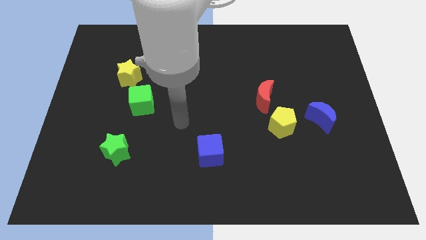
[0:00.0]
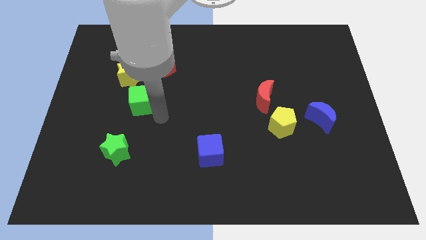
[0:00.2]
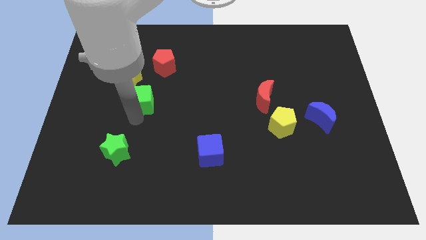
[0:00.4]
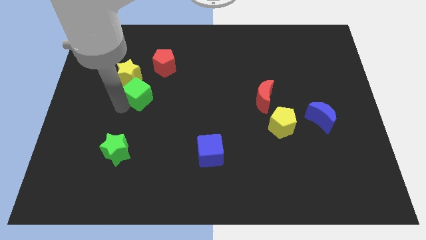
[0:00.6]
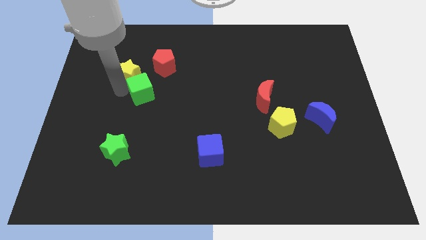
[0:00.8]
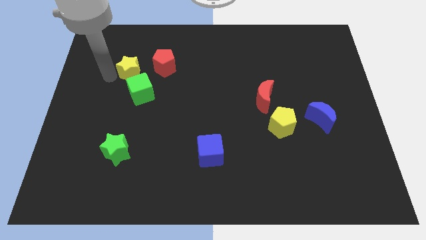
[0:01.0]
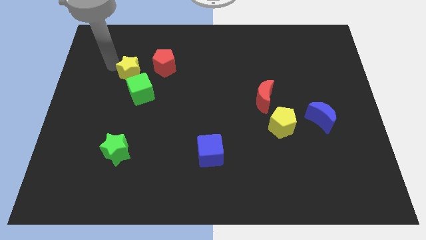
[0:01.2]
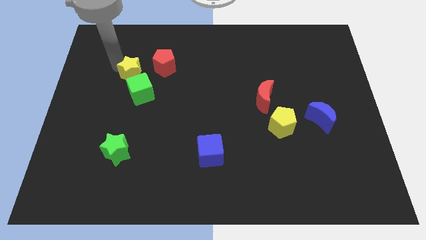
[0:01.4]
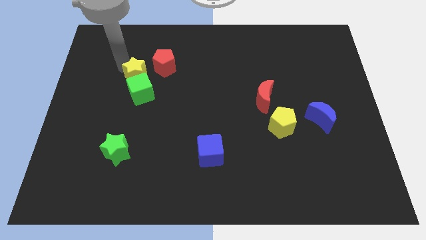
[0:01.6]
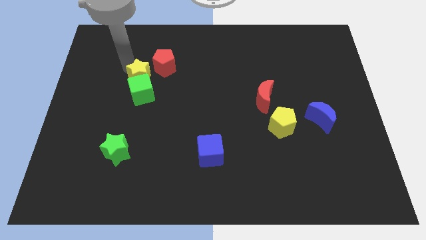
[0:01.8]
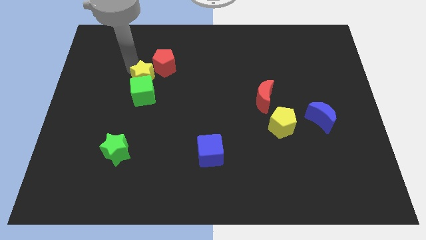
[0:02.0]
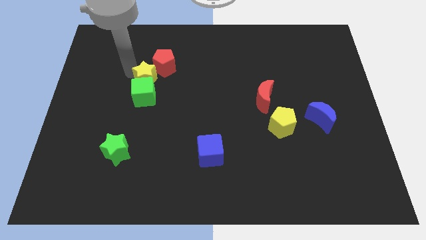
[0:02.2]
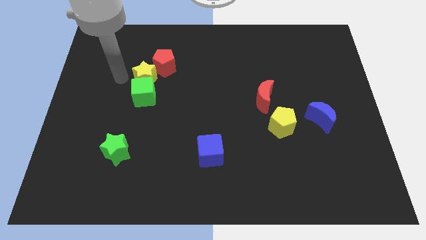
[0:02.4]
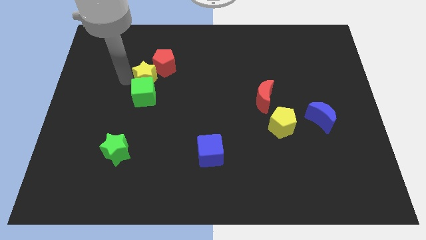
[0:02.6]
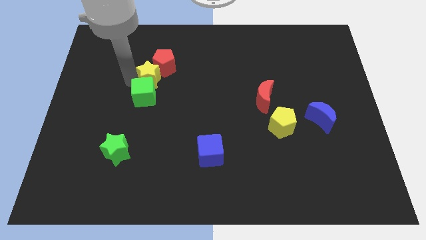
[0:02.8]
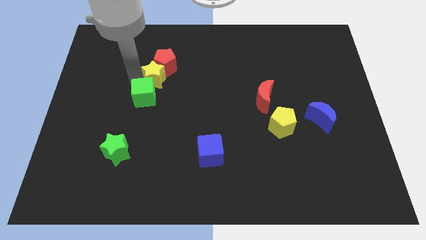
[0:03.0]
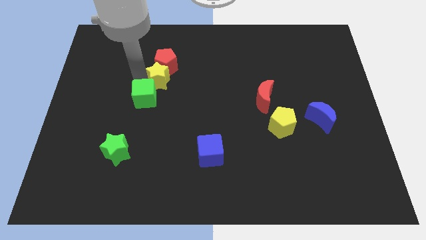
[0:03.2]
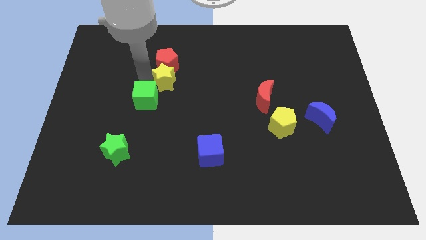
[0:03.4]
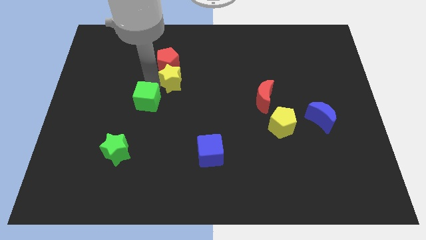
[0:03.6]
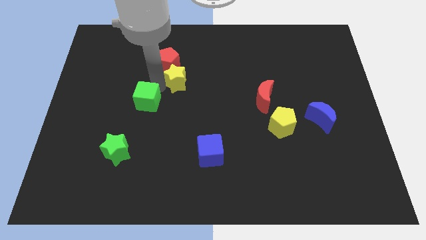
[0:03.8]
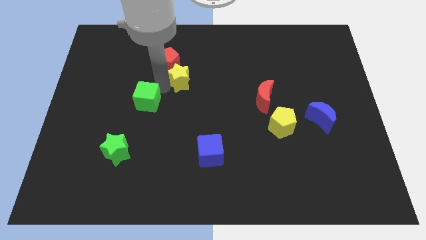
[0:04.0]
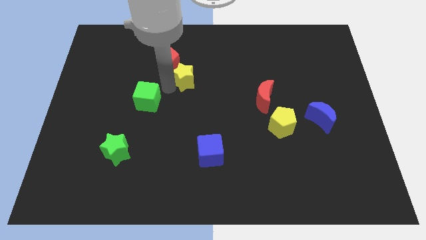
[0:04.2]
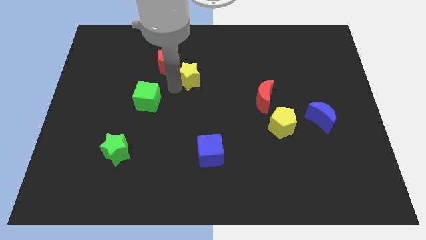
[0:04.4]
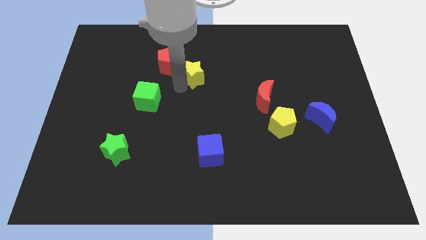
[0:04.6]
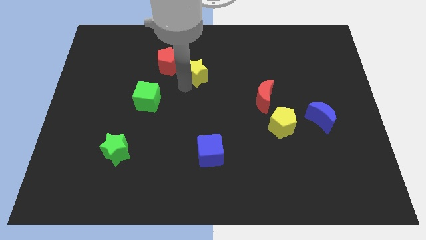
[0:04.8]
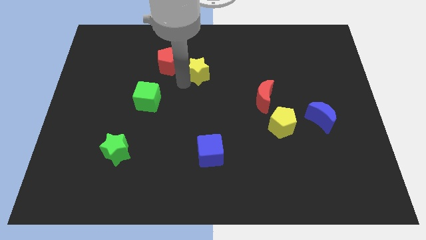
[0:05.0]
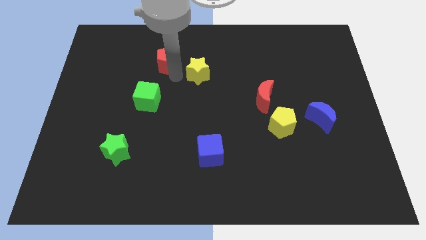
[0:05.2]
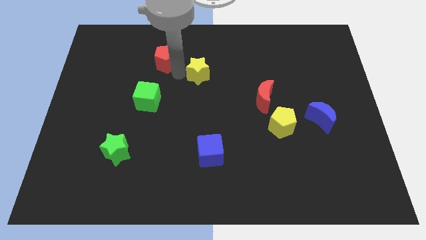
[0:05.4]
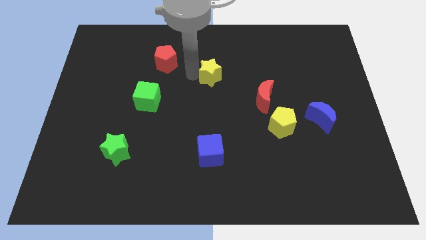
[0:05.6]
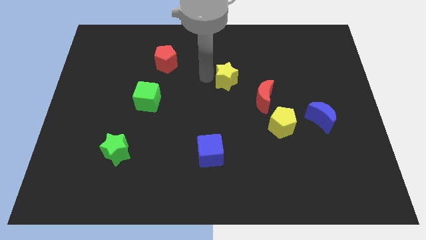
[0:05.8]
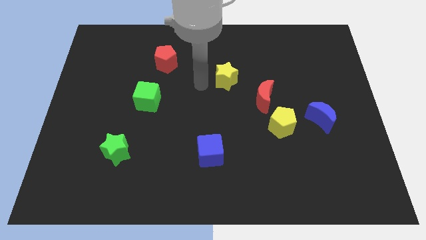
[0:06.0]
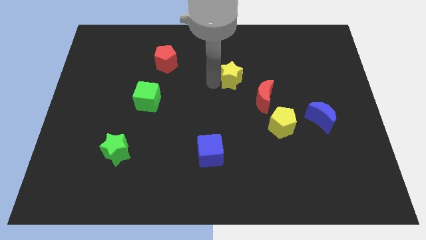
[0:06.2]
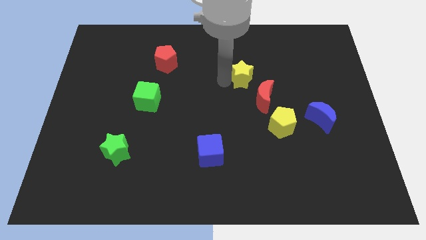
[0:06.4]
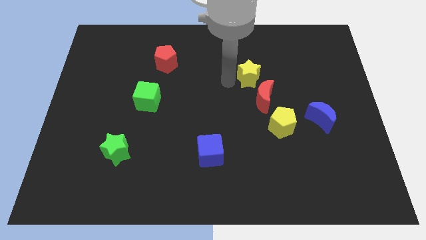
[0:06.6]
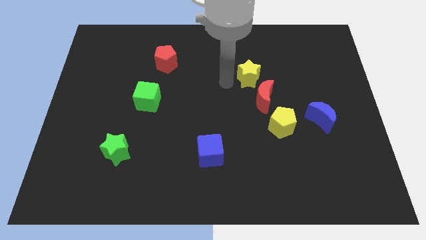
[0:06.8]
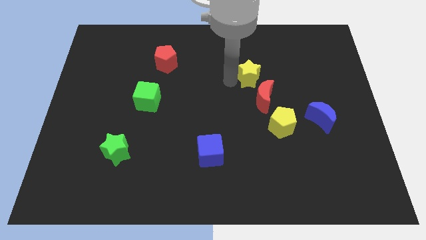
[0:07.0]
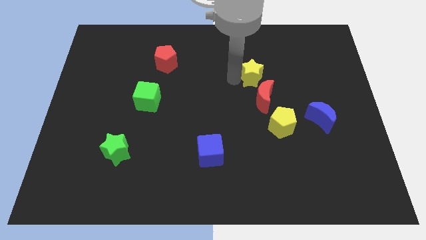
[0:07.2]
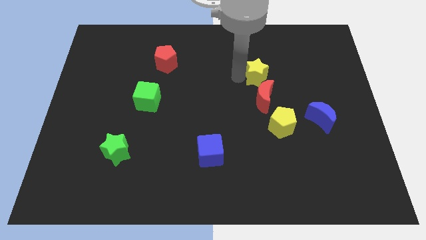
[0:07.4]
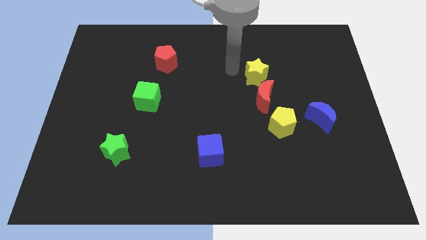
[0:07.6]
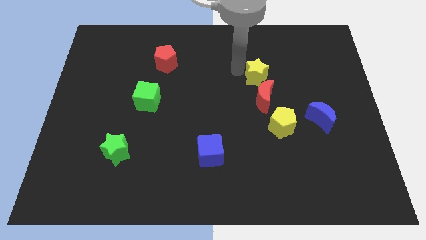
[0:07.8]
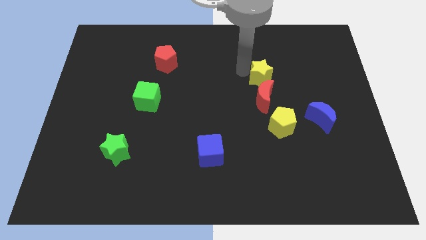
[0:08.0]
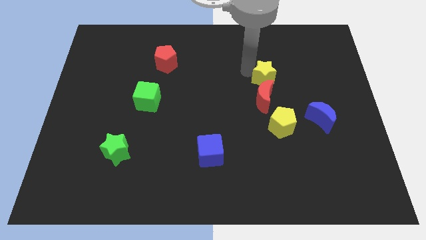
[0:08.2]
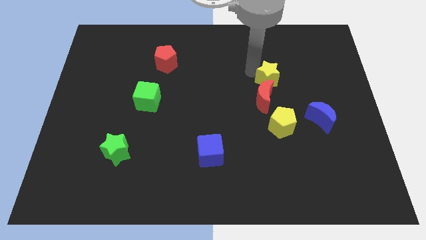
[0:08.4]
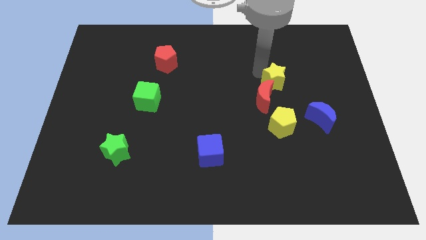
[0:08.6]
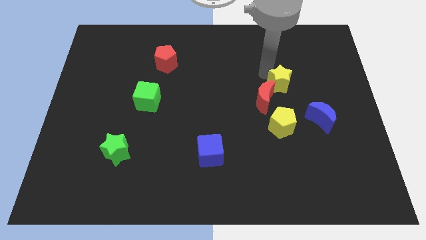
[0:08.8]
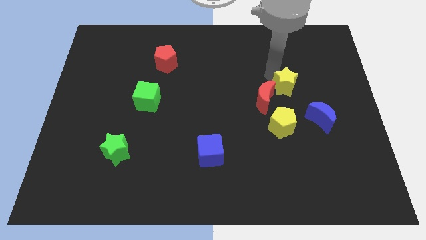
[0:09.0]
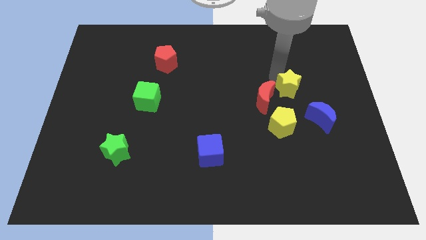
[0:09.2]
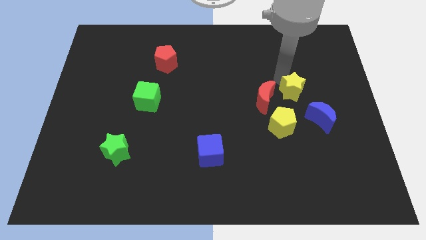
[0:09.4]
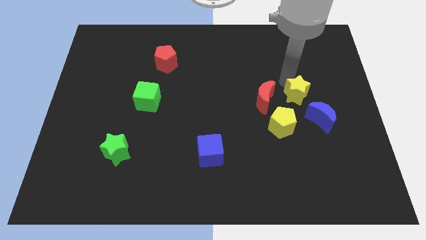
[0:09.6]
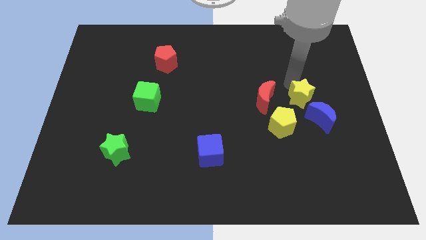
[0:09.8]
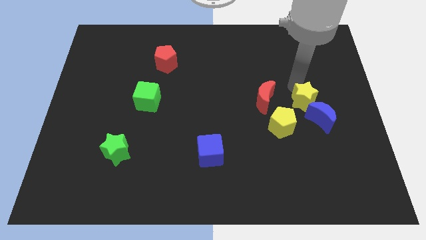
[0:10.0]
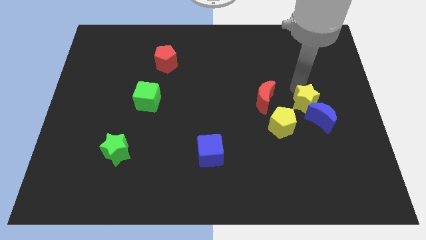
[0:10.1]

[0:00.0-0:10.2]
put the yellow star towards the blue moon

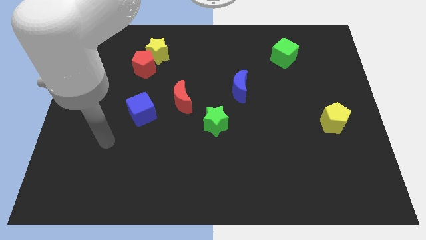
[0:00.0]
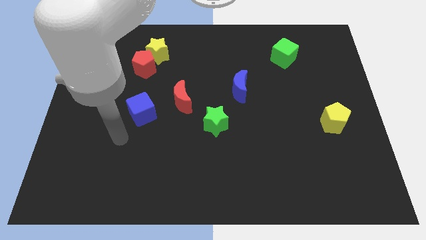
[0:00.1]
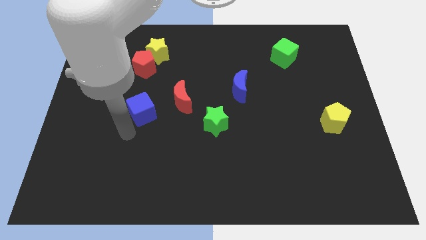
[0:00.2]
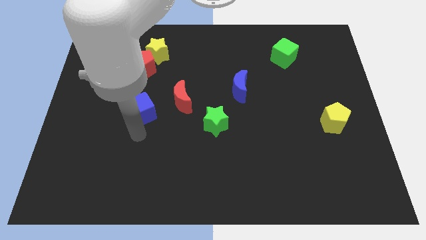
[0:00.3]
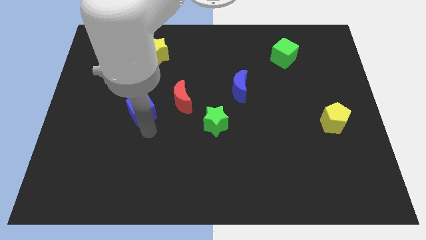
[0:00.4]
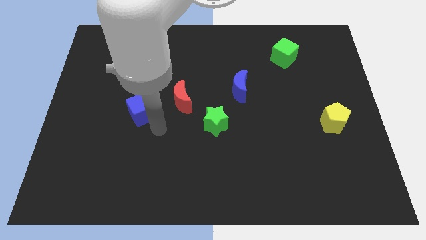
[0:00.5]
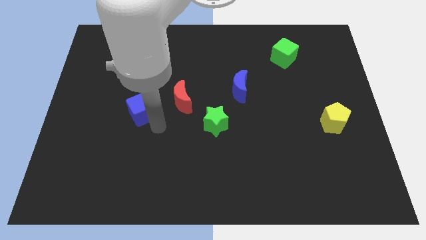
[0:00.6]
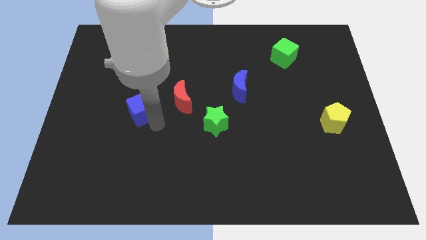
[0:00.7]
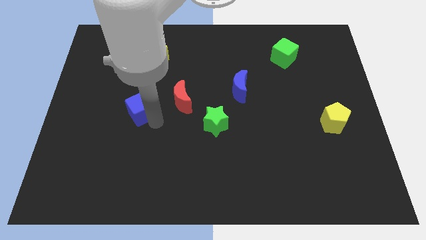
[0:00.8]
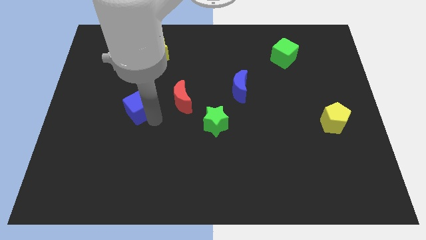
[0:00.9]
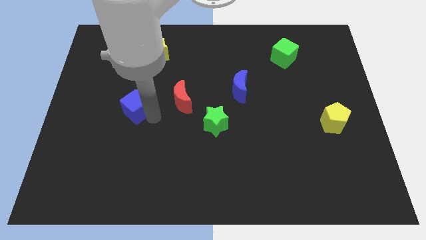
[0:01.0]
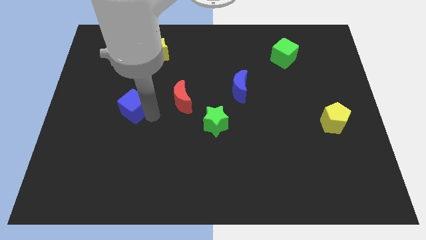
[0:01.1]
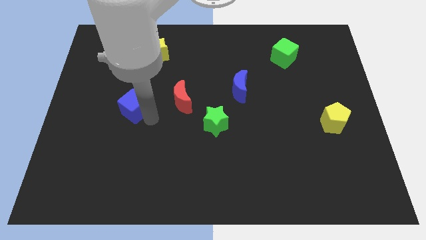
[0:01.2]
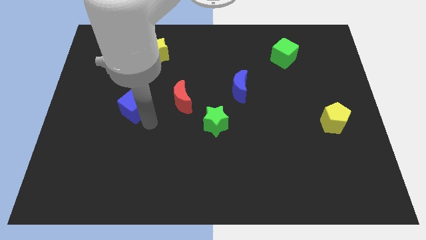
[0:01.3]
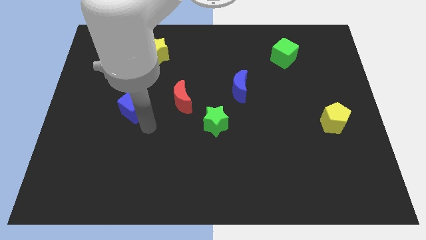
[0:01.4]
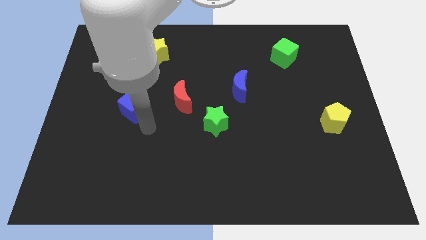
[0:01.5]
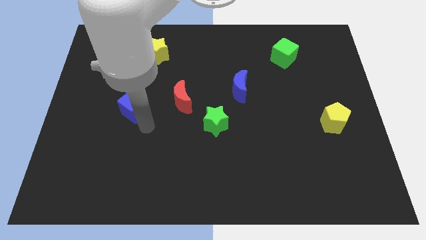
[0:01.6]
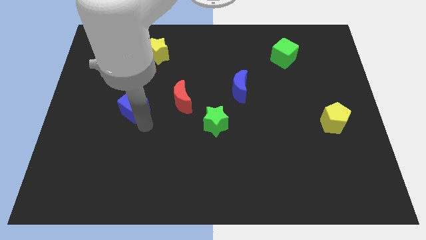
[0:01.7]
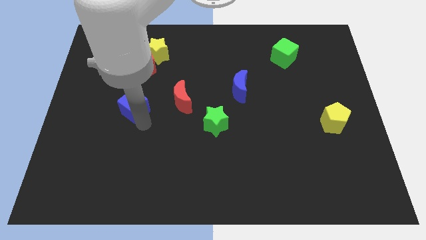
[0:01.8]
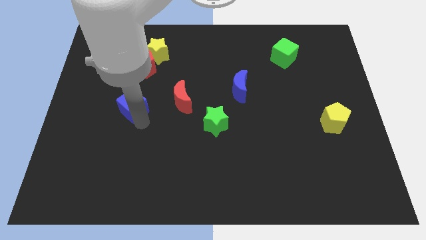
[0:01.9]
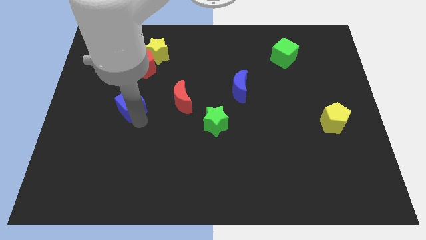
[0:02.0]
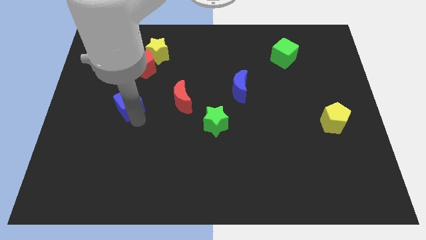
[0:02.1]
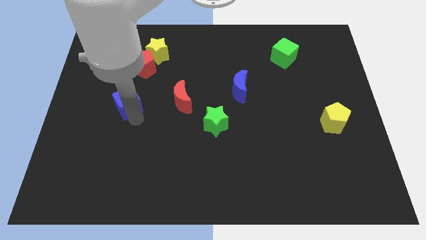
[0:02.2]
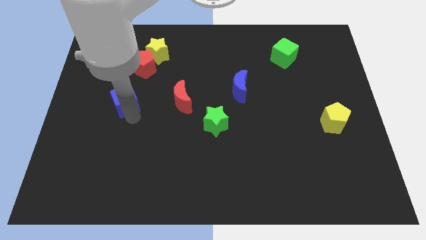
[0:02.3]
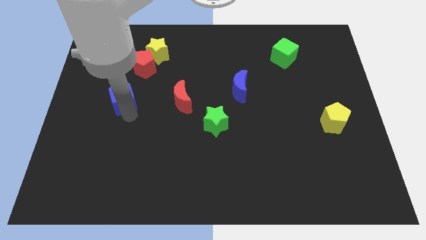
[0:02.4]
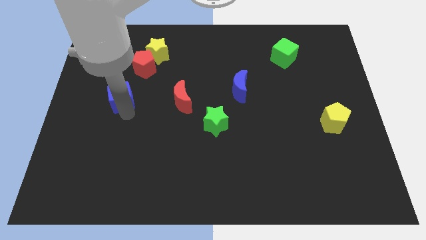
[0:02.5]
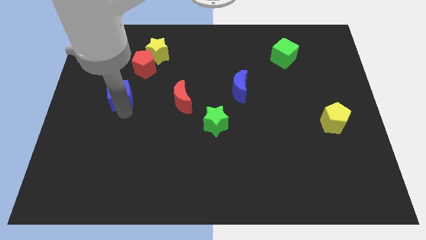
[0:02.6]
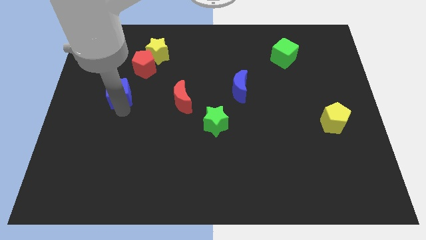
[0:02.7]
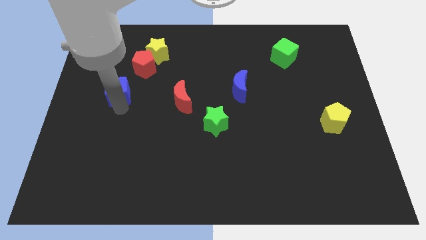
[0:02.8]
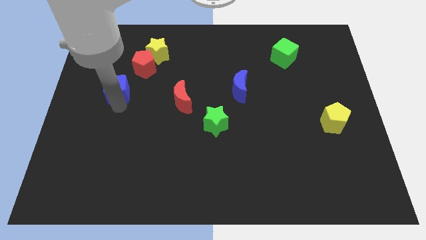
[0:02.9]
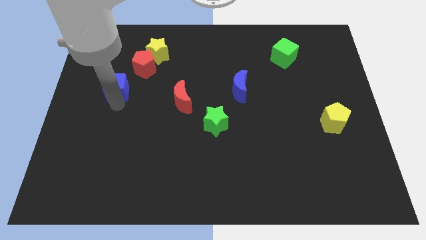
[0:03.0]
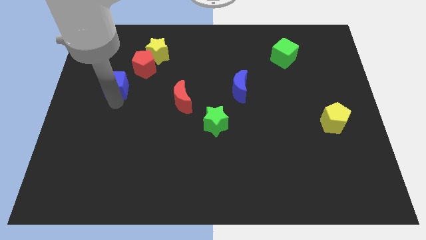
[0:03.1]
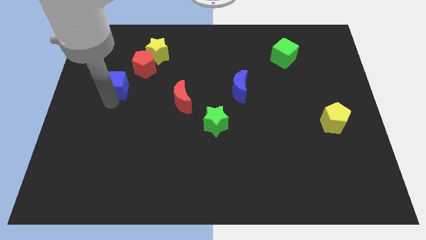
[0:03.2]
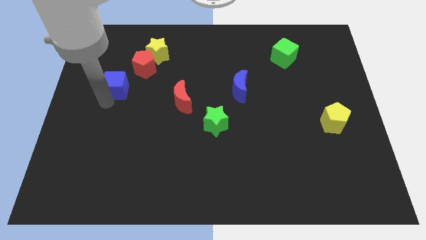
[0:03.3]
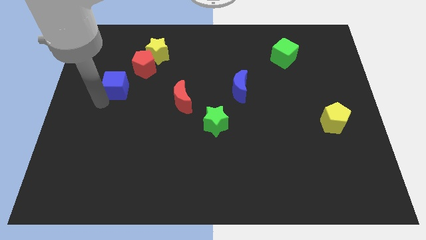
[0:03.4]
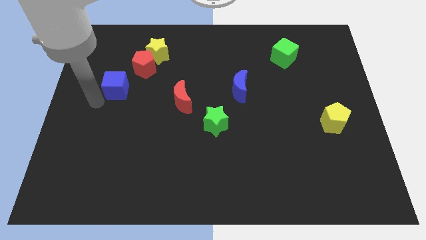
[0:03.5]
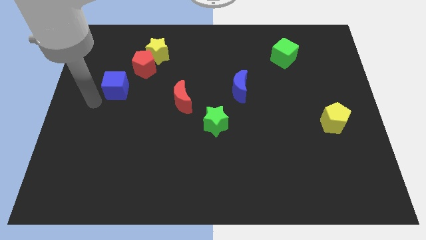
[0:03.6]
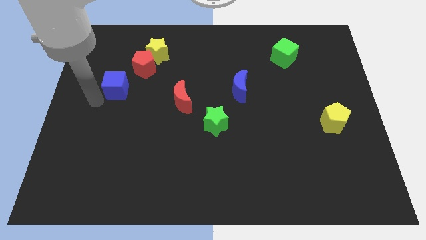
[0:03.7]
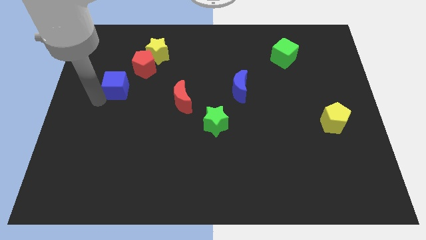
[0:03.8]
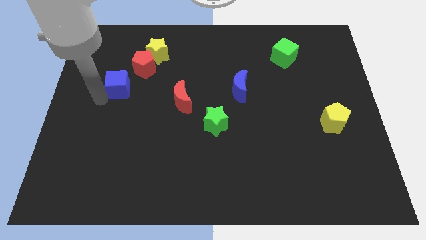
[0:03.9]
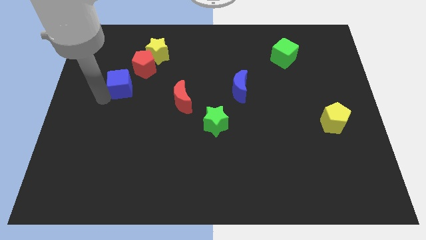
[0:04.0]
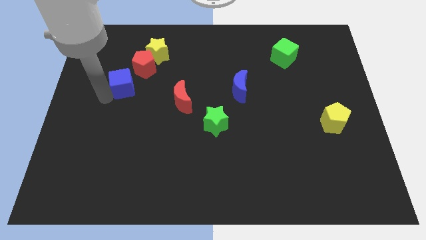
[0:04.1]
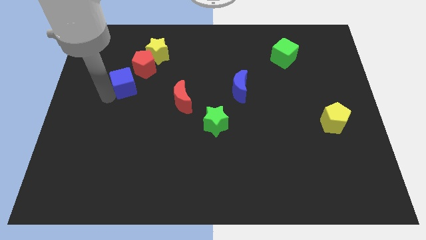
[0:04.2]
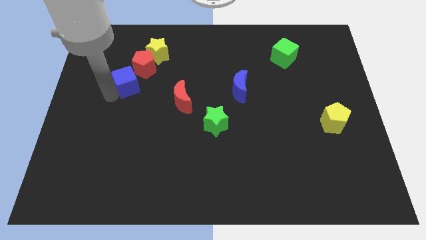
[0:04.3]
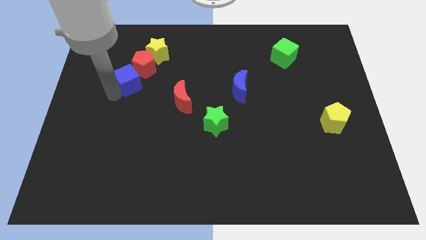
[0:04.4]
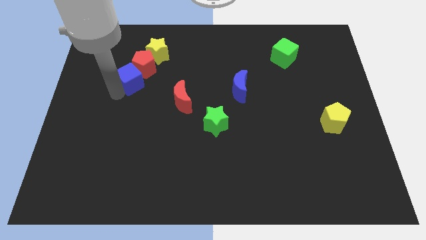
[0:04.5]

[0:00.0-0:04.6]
push the blue cube towards the red pentagon
